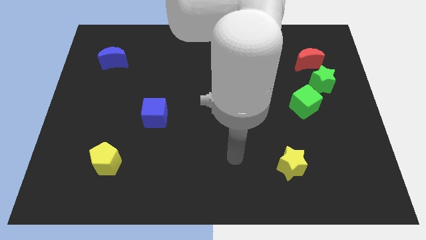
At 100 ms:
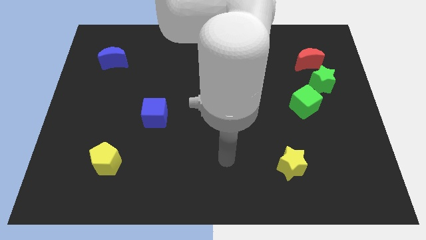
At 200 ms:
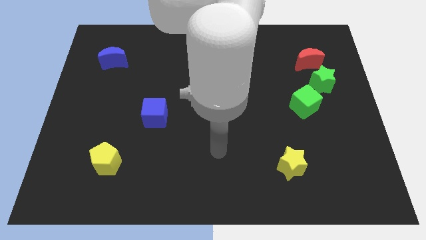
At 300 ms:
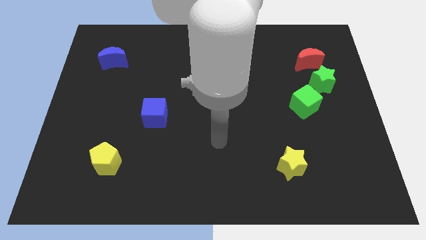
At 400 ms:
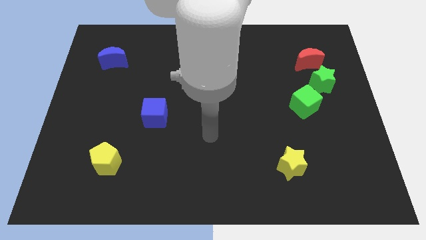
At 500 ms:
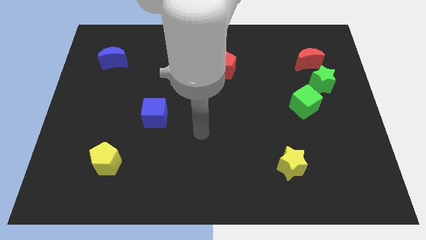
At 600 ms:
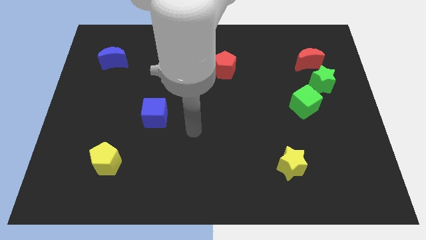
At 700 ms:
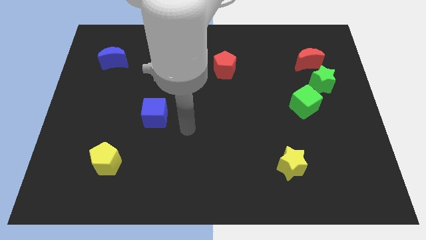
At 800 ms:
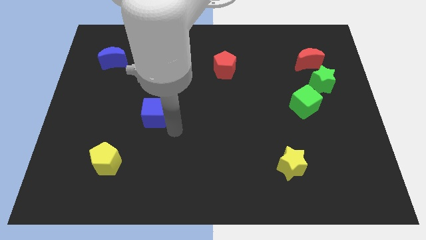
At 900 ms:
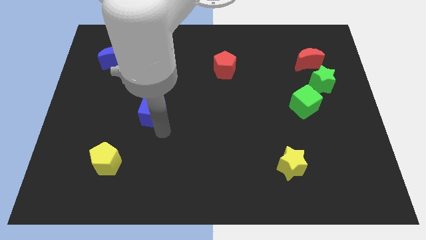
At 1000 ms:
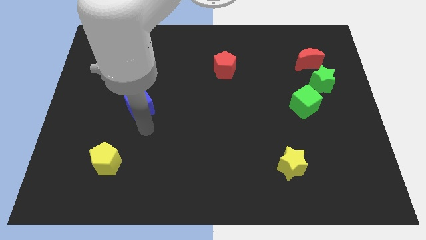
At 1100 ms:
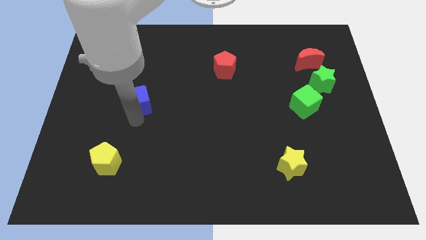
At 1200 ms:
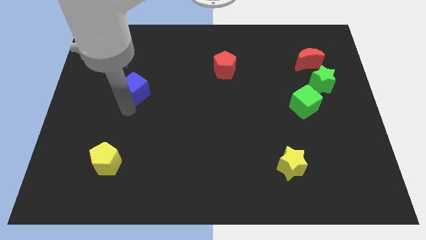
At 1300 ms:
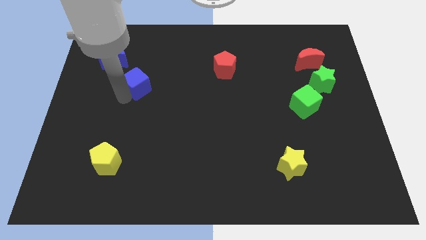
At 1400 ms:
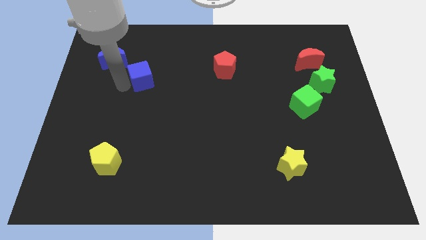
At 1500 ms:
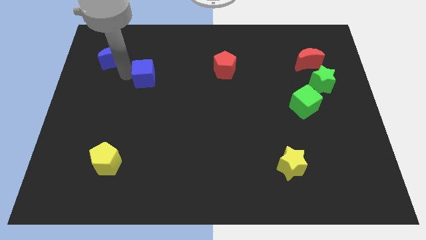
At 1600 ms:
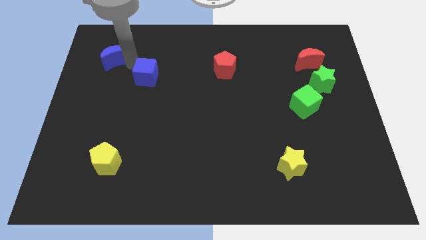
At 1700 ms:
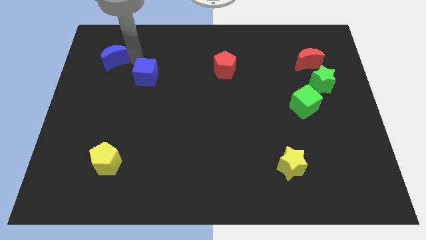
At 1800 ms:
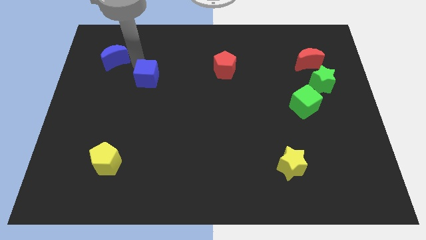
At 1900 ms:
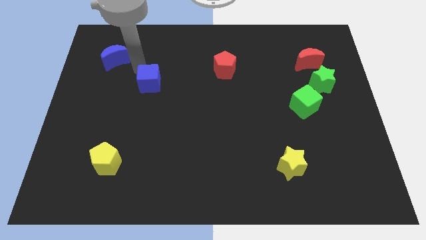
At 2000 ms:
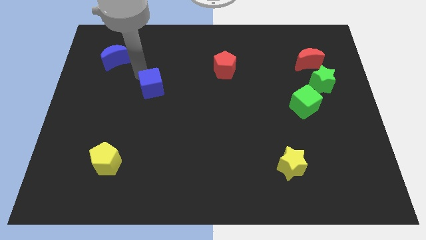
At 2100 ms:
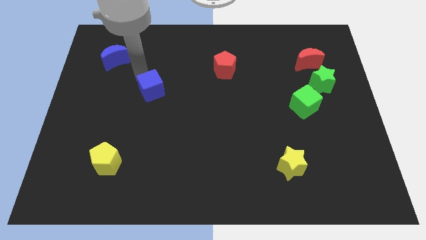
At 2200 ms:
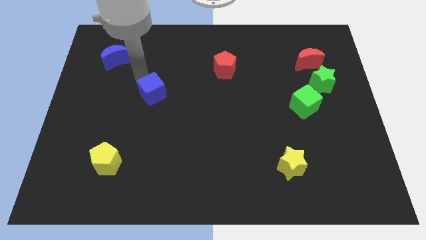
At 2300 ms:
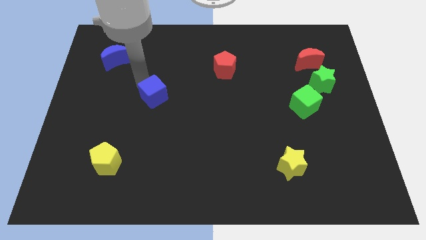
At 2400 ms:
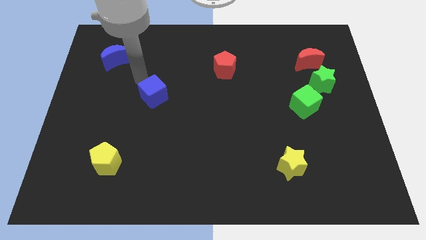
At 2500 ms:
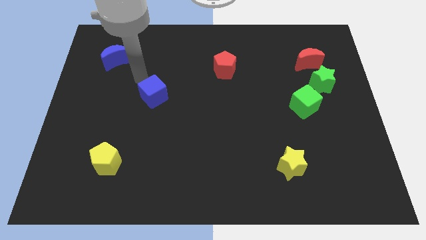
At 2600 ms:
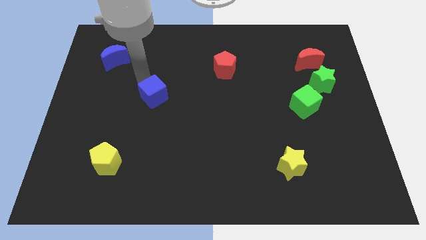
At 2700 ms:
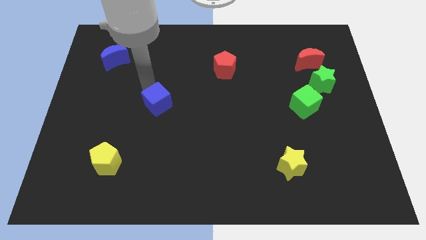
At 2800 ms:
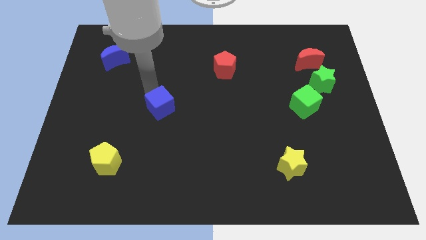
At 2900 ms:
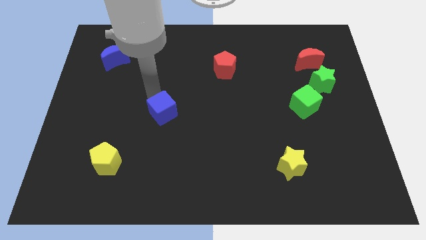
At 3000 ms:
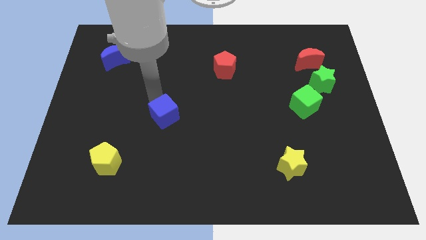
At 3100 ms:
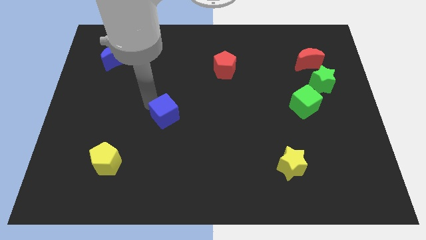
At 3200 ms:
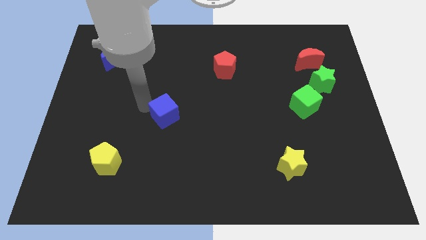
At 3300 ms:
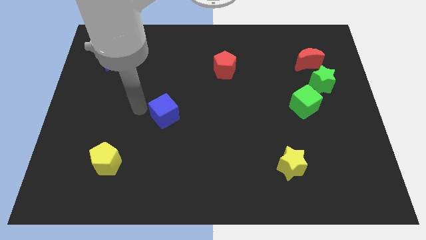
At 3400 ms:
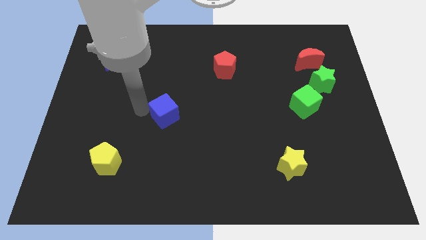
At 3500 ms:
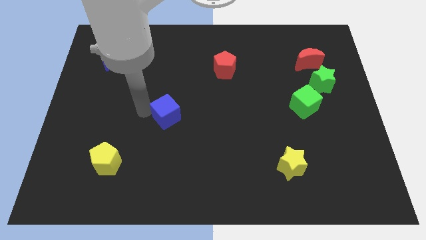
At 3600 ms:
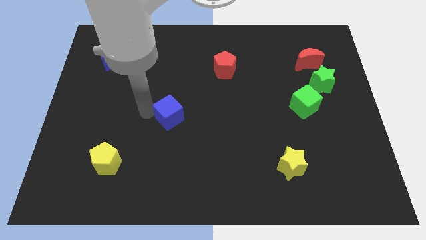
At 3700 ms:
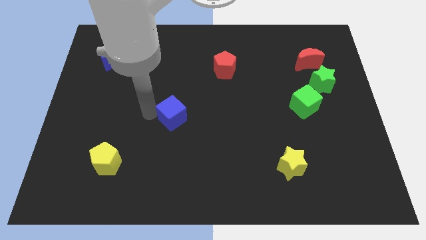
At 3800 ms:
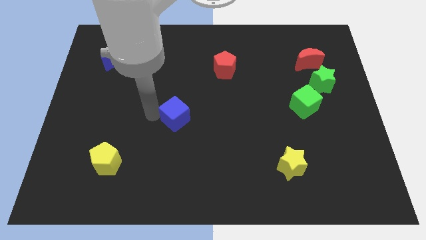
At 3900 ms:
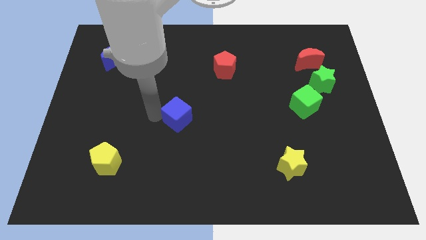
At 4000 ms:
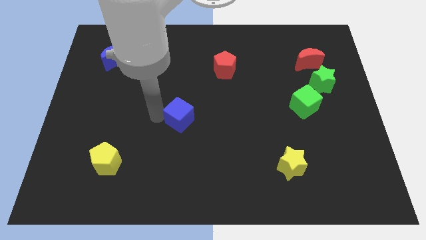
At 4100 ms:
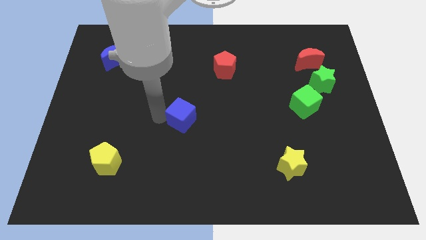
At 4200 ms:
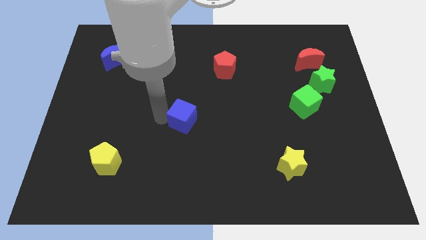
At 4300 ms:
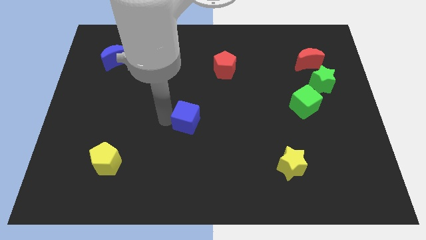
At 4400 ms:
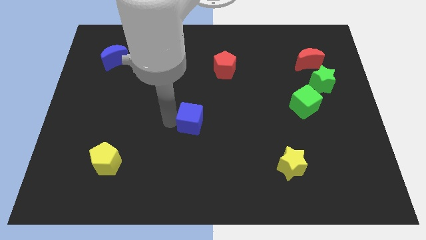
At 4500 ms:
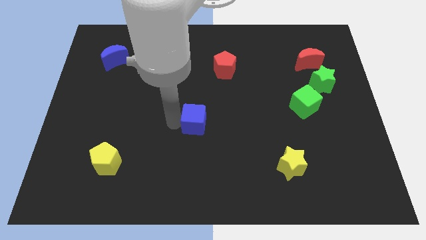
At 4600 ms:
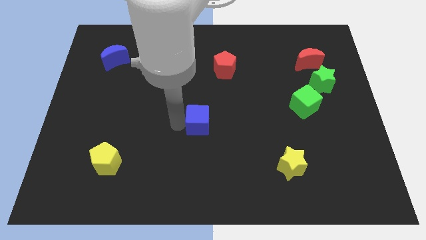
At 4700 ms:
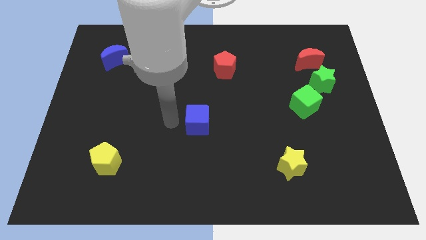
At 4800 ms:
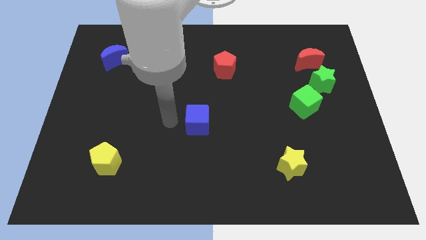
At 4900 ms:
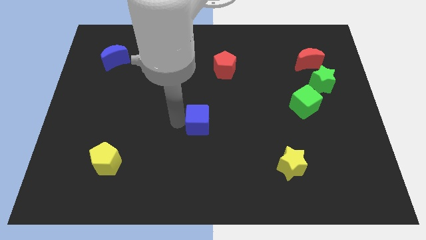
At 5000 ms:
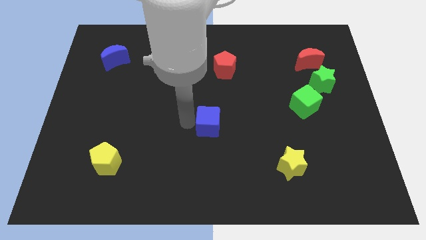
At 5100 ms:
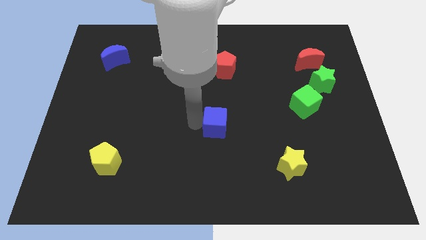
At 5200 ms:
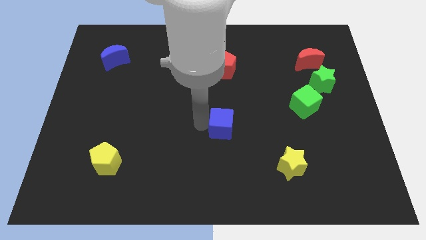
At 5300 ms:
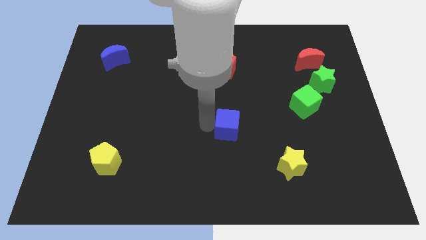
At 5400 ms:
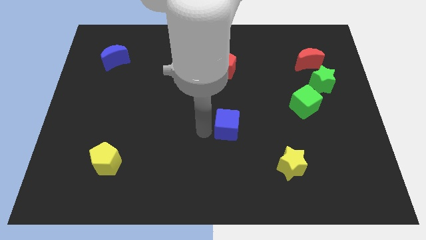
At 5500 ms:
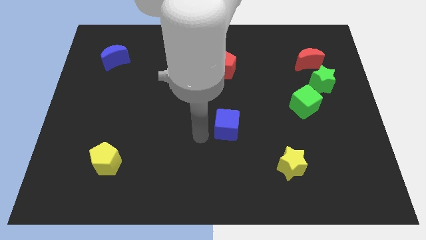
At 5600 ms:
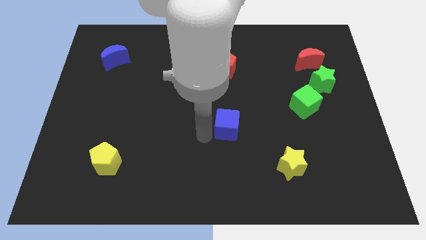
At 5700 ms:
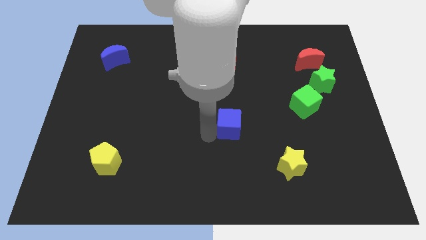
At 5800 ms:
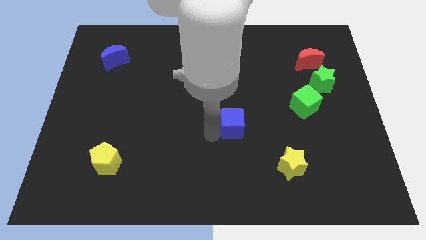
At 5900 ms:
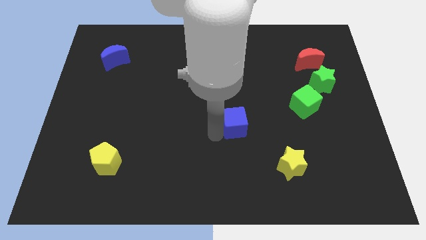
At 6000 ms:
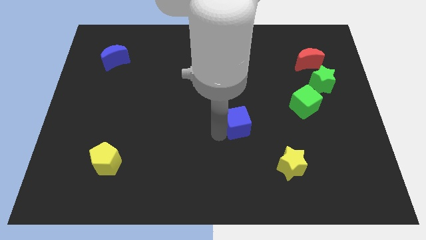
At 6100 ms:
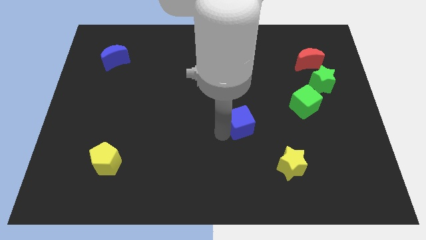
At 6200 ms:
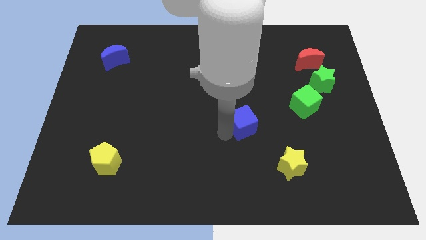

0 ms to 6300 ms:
slide the blue cube right

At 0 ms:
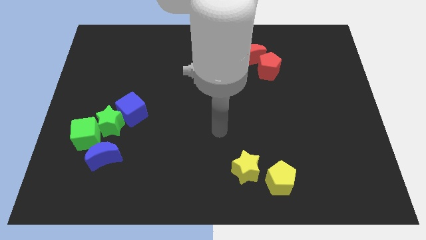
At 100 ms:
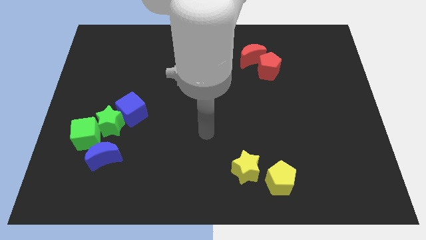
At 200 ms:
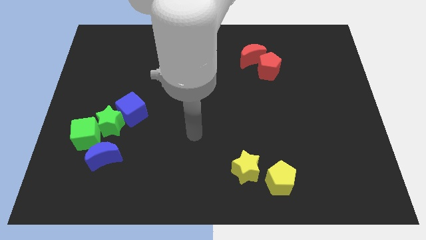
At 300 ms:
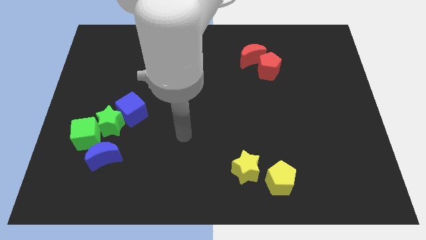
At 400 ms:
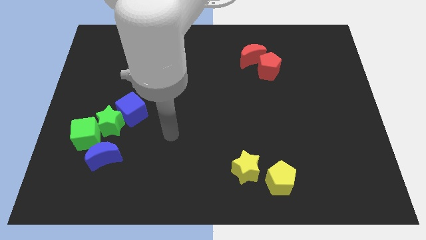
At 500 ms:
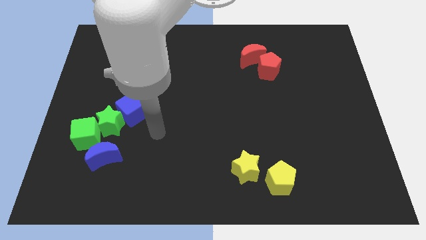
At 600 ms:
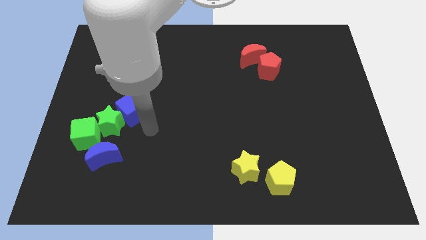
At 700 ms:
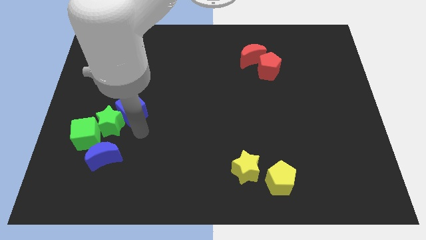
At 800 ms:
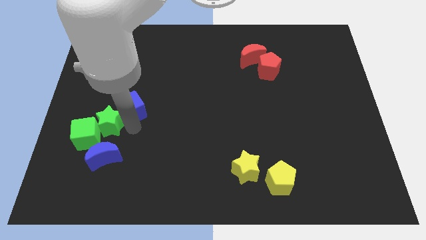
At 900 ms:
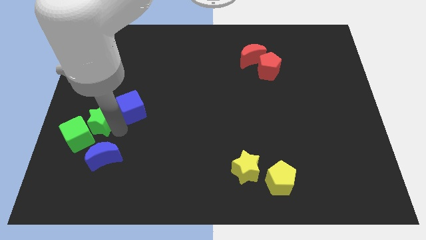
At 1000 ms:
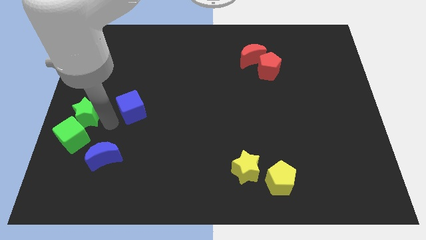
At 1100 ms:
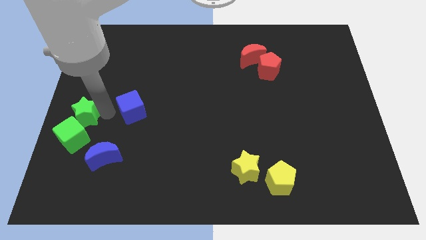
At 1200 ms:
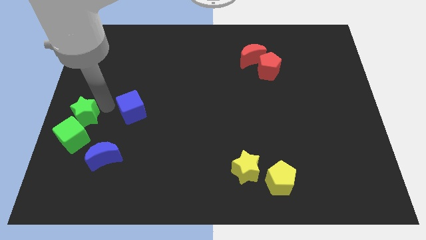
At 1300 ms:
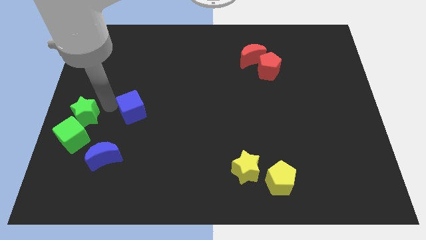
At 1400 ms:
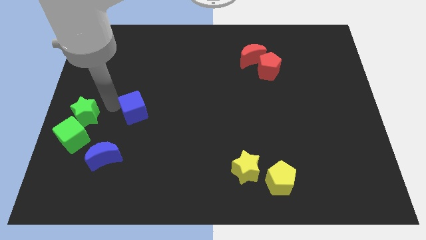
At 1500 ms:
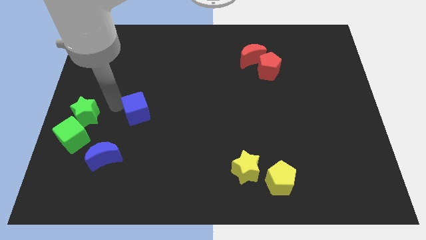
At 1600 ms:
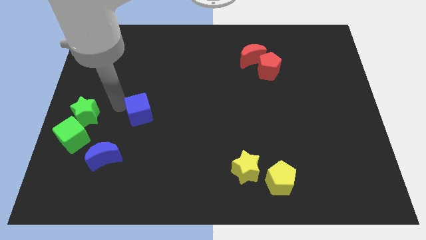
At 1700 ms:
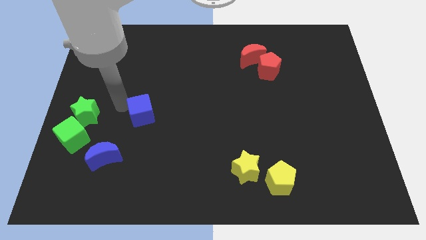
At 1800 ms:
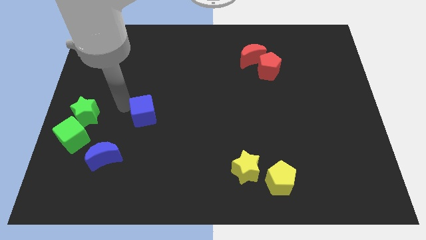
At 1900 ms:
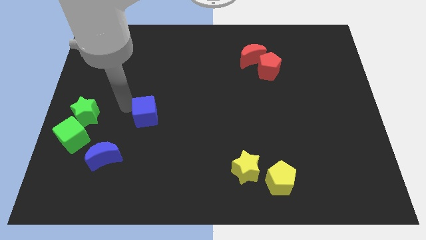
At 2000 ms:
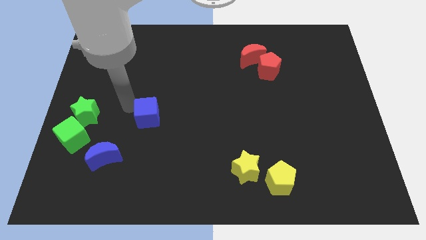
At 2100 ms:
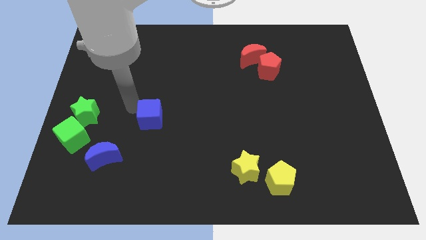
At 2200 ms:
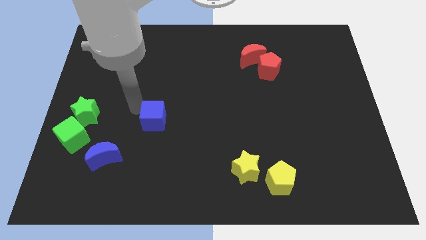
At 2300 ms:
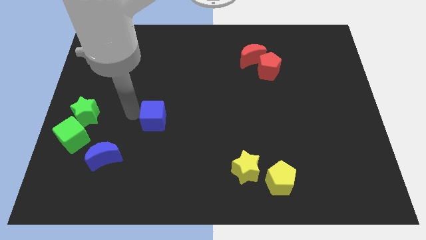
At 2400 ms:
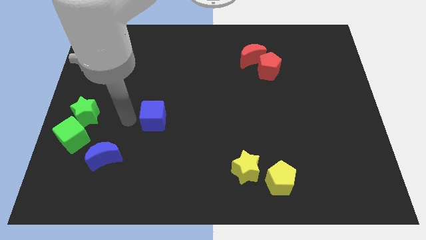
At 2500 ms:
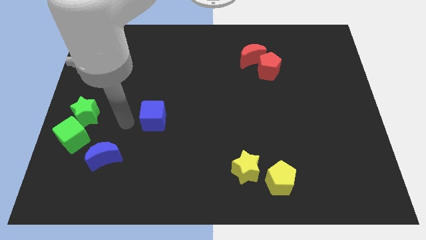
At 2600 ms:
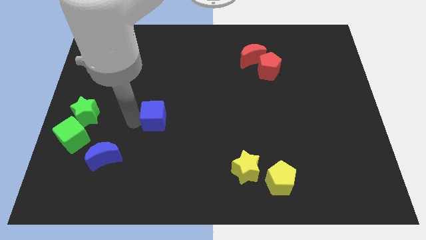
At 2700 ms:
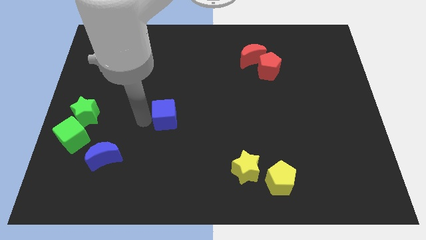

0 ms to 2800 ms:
move the blue cube a bit right
